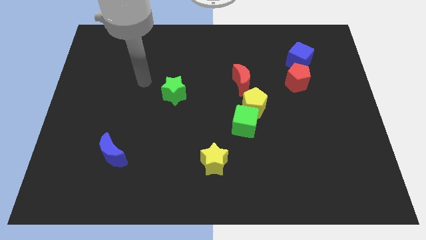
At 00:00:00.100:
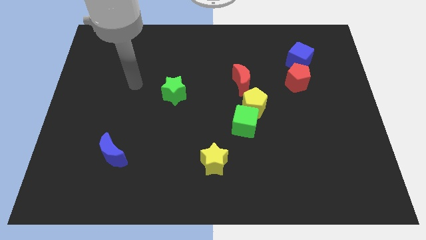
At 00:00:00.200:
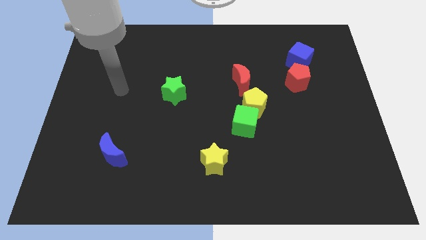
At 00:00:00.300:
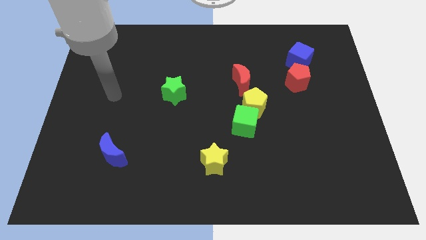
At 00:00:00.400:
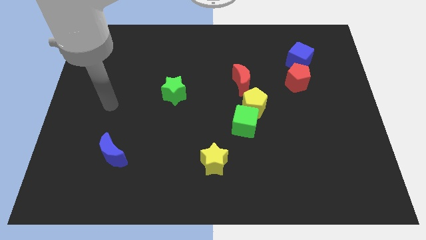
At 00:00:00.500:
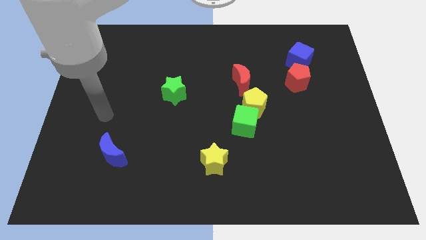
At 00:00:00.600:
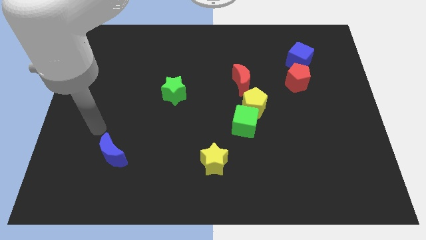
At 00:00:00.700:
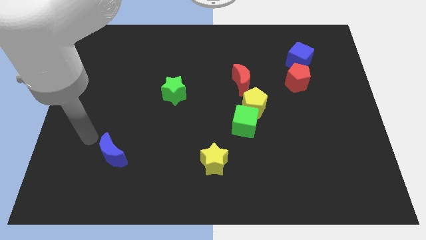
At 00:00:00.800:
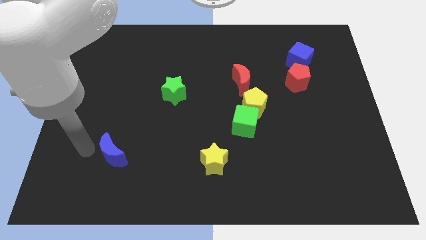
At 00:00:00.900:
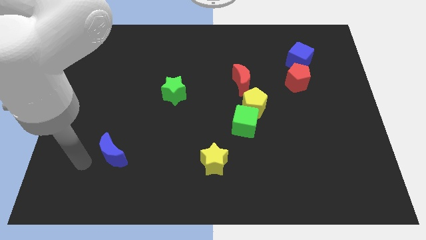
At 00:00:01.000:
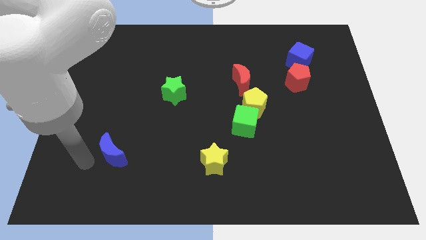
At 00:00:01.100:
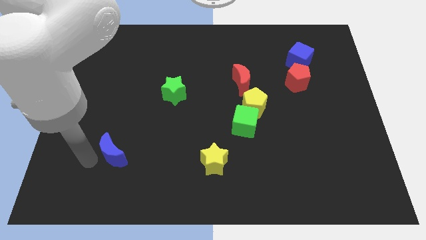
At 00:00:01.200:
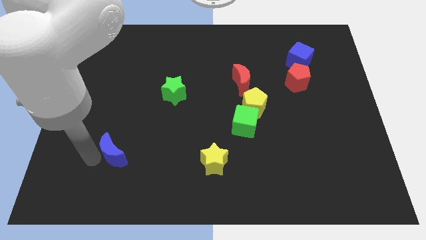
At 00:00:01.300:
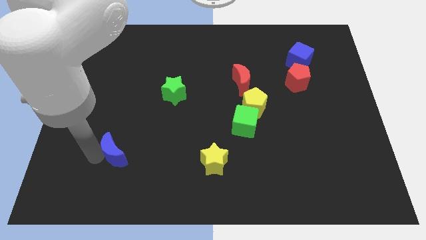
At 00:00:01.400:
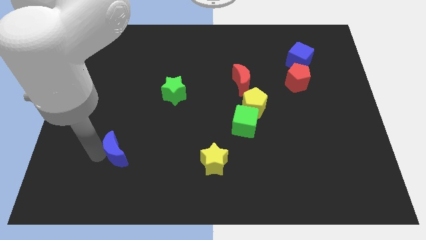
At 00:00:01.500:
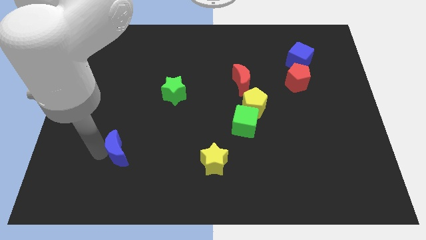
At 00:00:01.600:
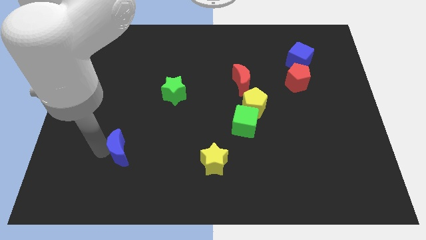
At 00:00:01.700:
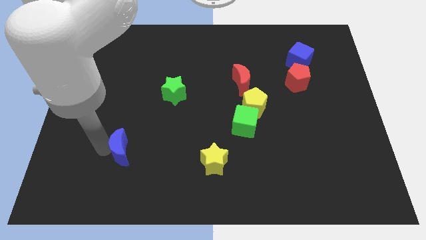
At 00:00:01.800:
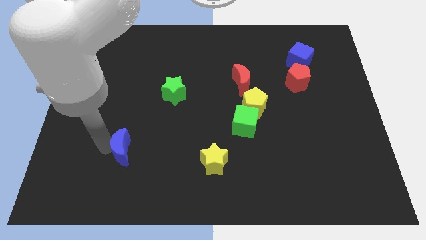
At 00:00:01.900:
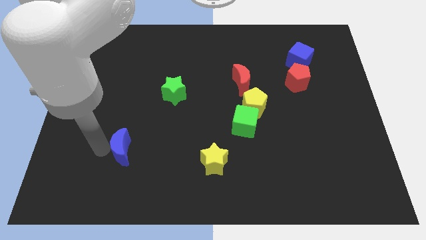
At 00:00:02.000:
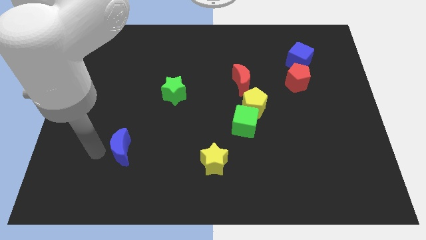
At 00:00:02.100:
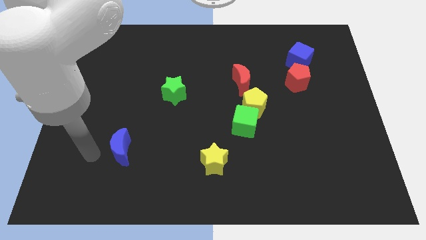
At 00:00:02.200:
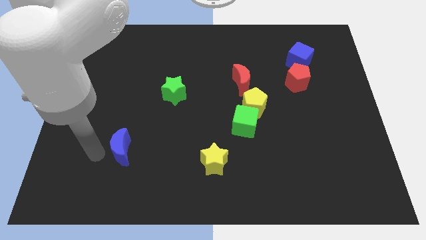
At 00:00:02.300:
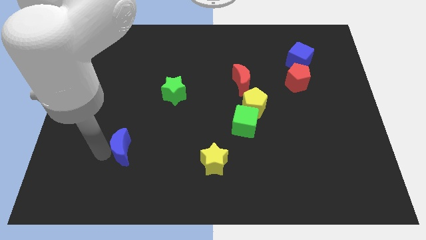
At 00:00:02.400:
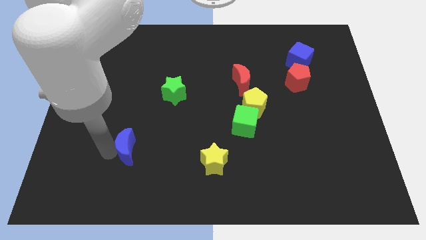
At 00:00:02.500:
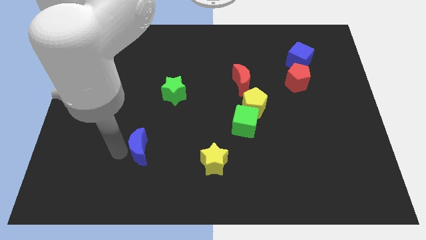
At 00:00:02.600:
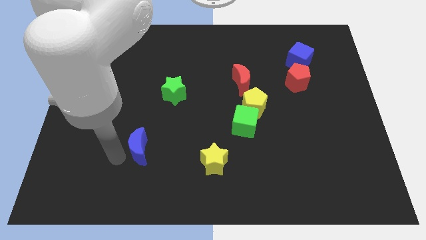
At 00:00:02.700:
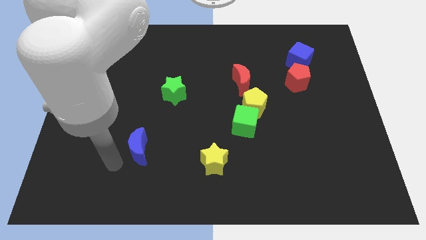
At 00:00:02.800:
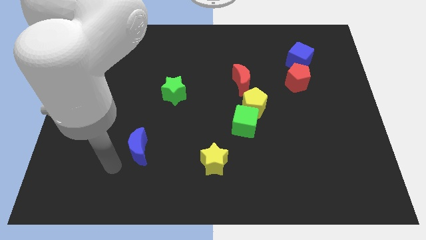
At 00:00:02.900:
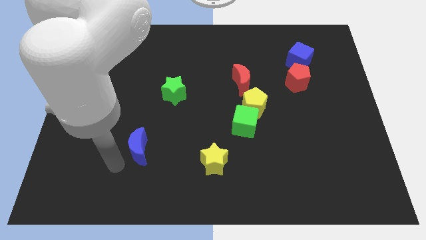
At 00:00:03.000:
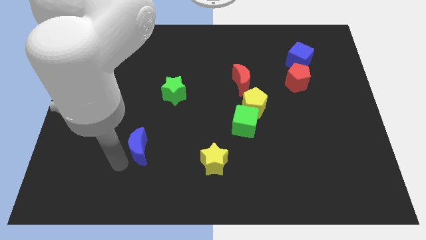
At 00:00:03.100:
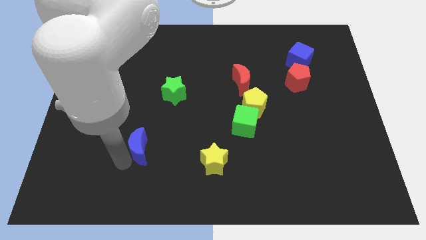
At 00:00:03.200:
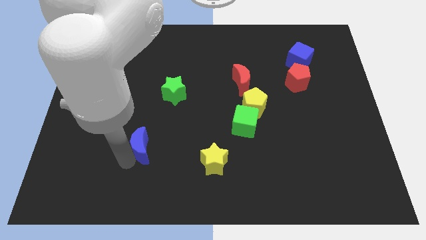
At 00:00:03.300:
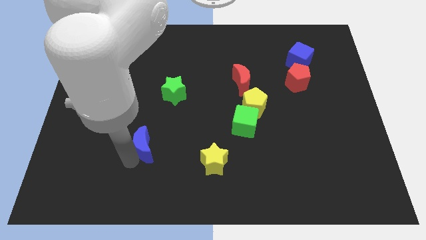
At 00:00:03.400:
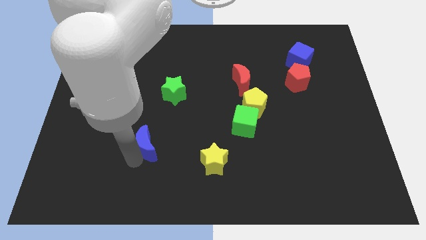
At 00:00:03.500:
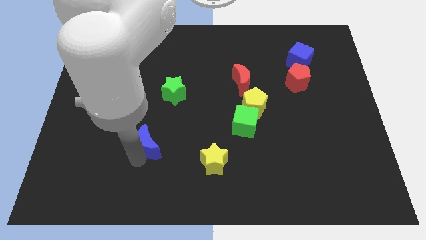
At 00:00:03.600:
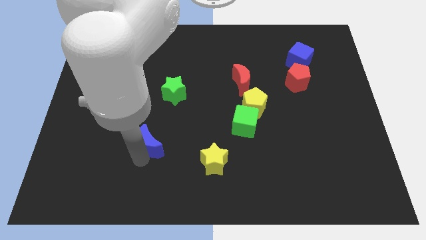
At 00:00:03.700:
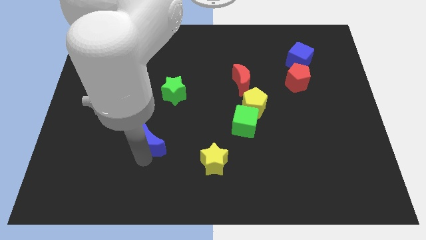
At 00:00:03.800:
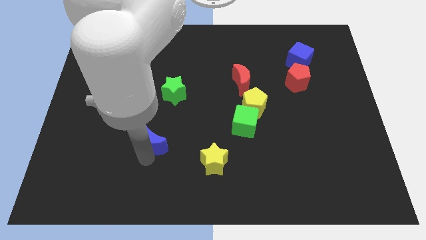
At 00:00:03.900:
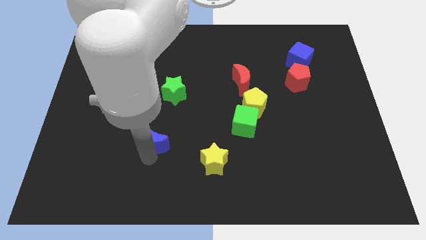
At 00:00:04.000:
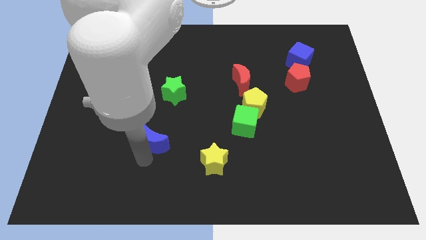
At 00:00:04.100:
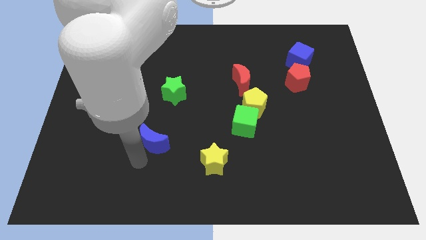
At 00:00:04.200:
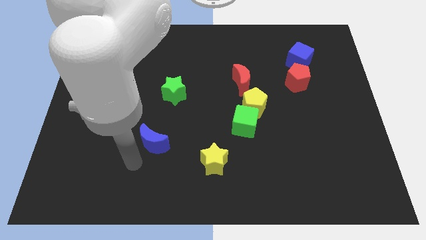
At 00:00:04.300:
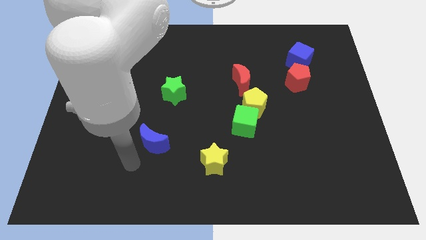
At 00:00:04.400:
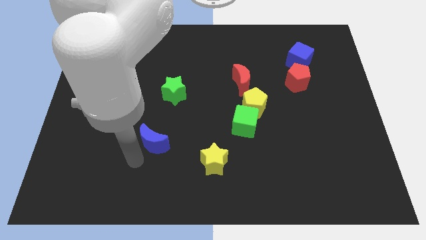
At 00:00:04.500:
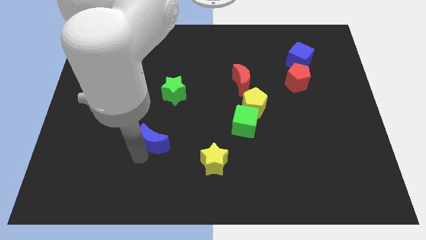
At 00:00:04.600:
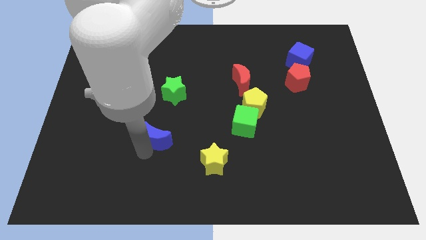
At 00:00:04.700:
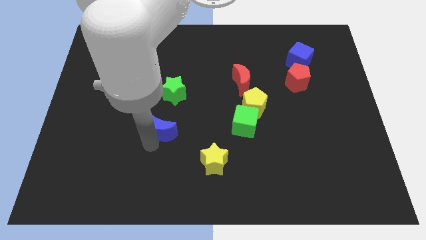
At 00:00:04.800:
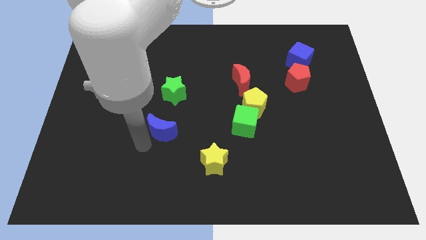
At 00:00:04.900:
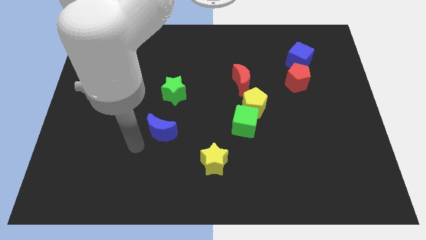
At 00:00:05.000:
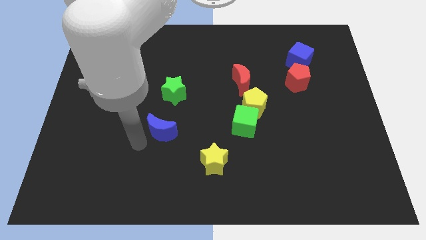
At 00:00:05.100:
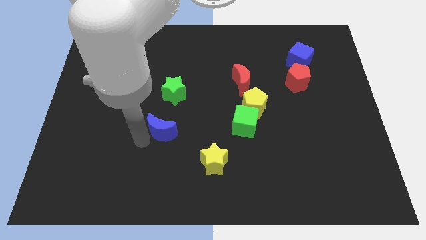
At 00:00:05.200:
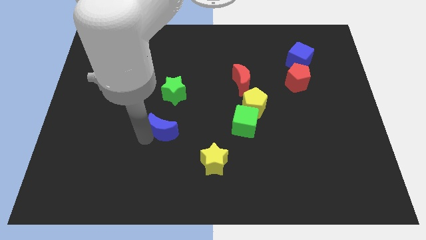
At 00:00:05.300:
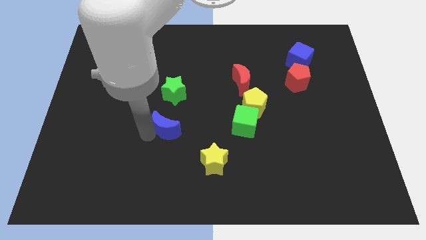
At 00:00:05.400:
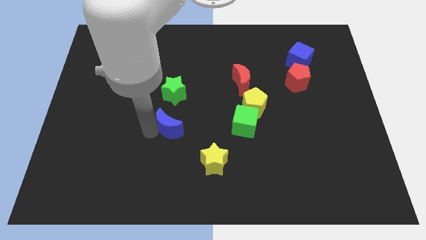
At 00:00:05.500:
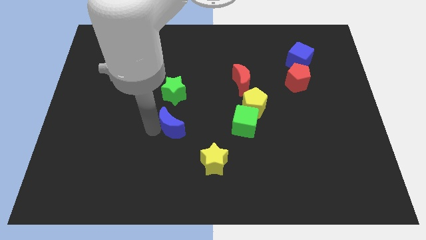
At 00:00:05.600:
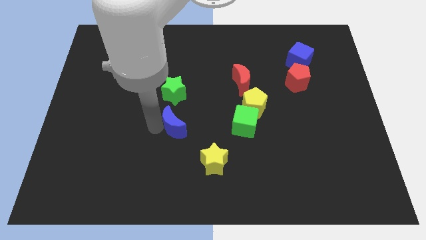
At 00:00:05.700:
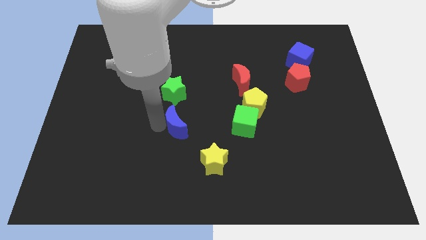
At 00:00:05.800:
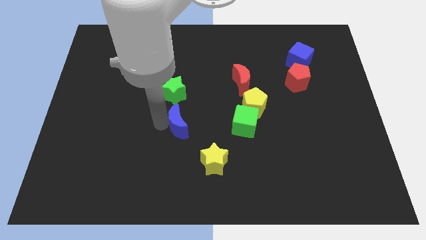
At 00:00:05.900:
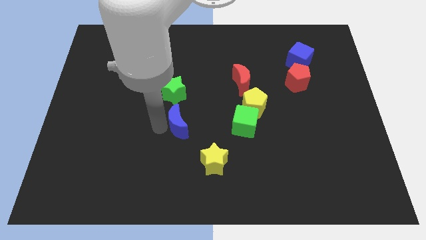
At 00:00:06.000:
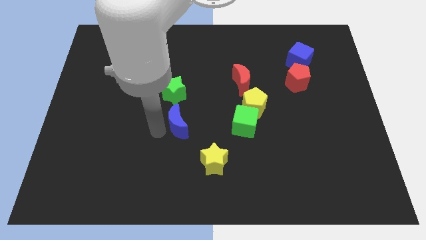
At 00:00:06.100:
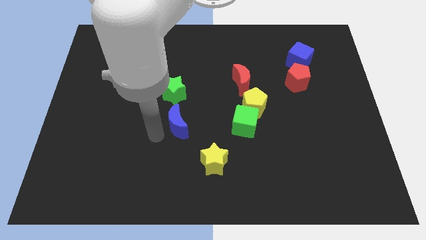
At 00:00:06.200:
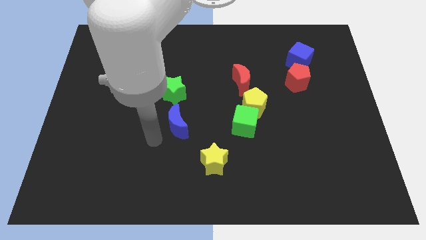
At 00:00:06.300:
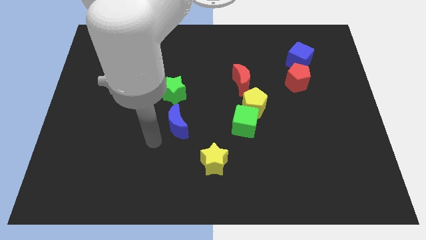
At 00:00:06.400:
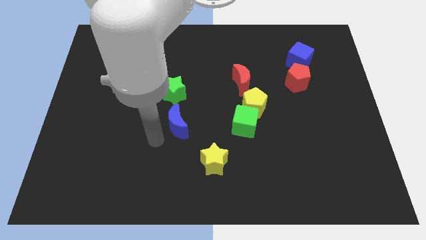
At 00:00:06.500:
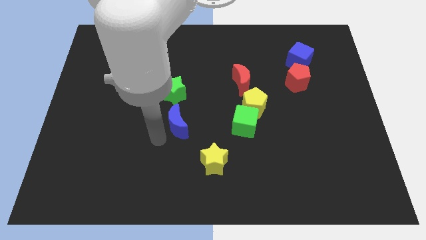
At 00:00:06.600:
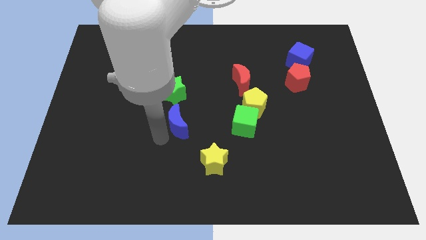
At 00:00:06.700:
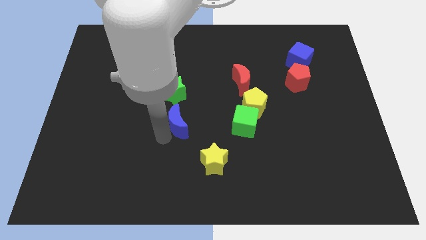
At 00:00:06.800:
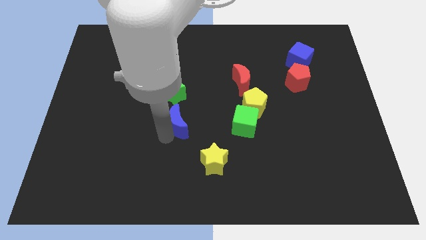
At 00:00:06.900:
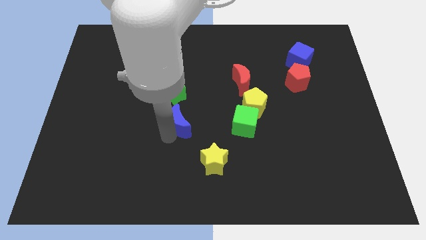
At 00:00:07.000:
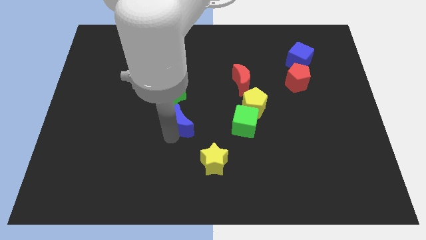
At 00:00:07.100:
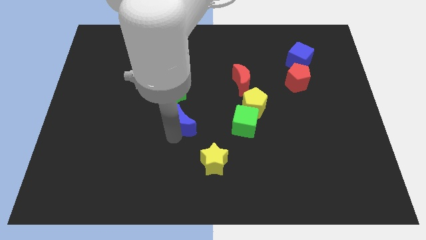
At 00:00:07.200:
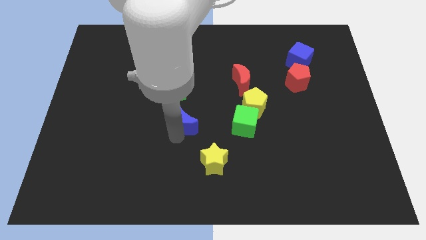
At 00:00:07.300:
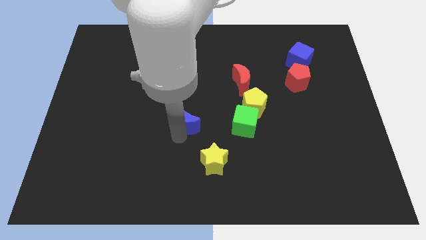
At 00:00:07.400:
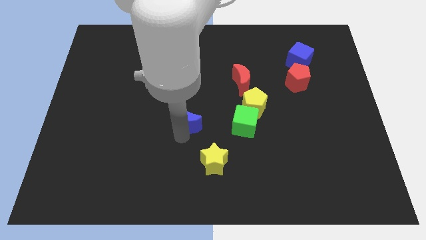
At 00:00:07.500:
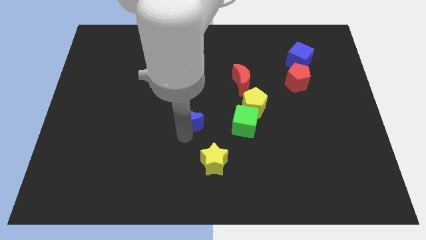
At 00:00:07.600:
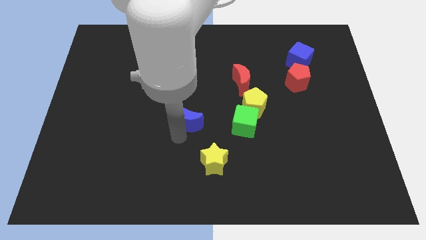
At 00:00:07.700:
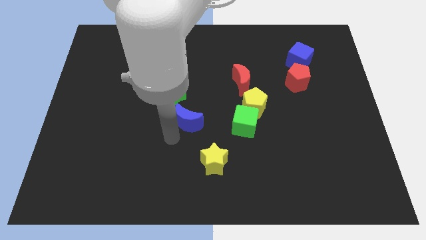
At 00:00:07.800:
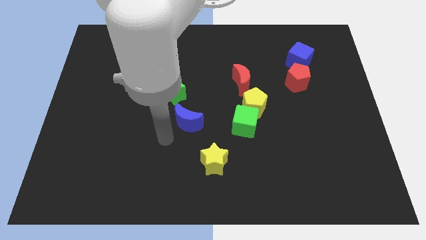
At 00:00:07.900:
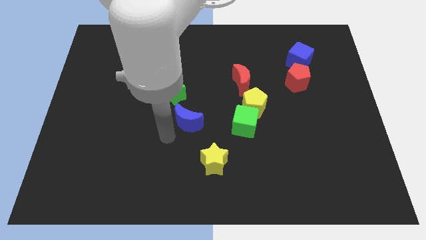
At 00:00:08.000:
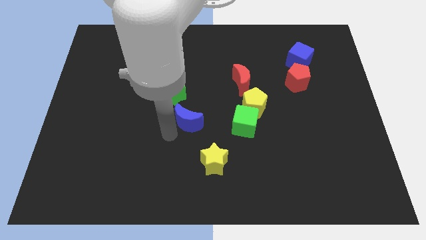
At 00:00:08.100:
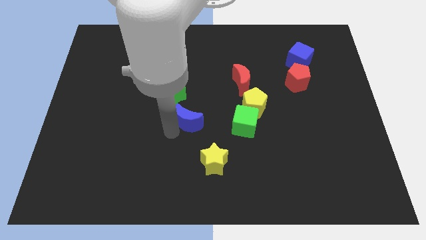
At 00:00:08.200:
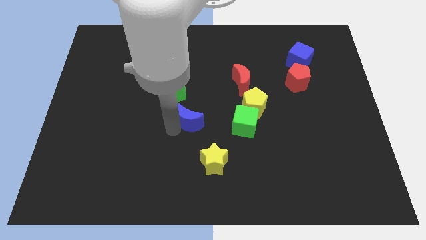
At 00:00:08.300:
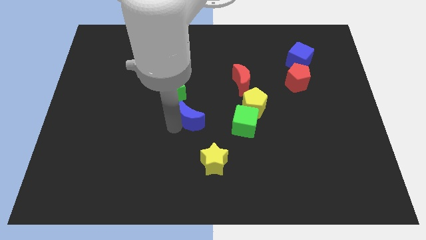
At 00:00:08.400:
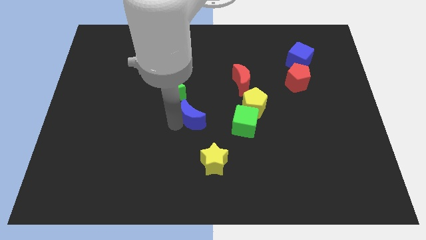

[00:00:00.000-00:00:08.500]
slide the blue moon to the left of the yellow pentagon
